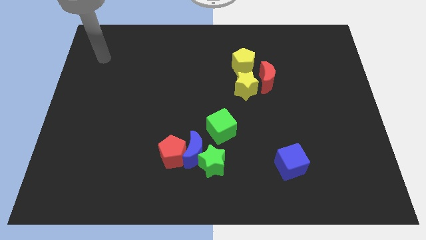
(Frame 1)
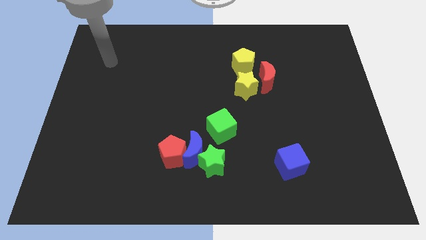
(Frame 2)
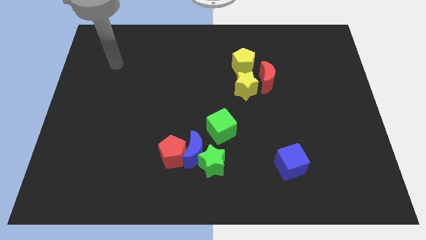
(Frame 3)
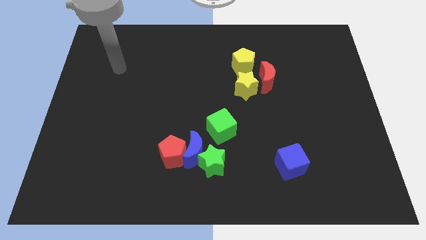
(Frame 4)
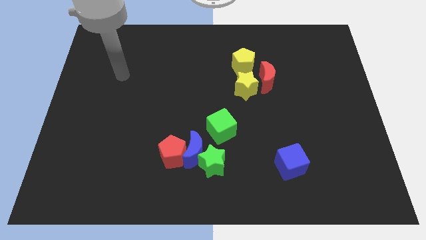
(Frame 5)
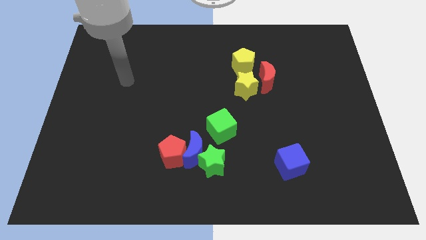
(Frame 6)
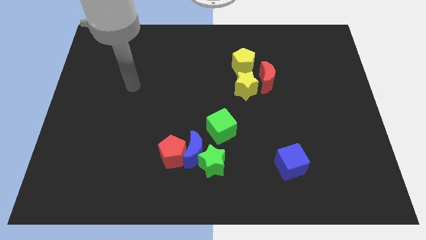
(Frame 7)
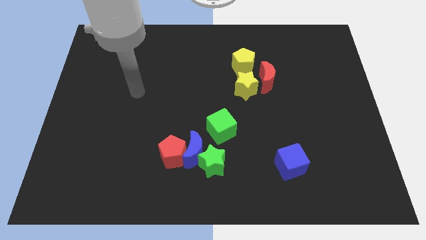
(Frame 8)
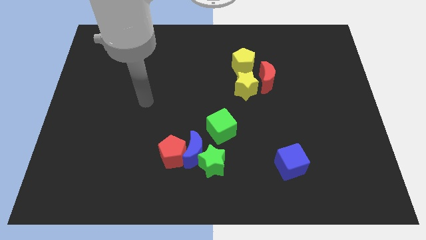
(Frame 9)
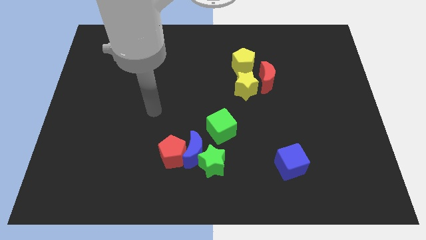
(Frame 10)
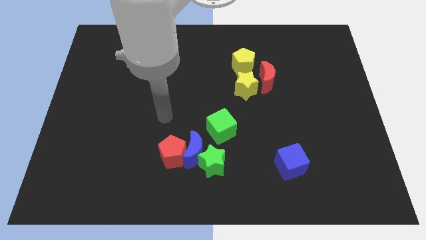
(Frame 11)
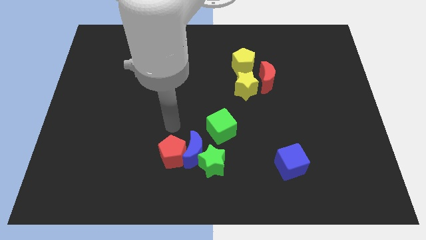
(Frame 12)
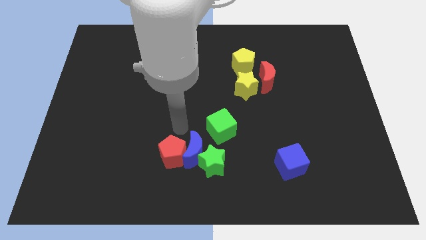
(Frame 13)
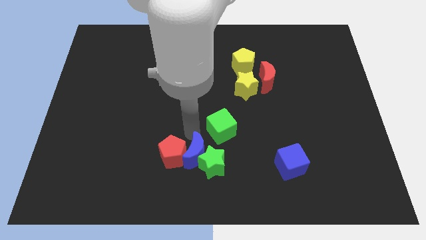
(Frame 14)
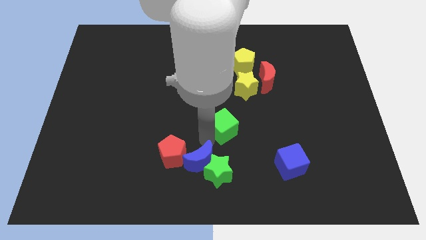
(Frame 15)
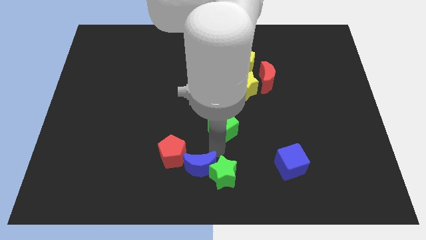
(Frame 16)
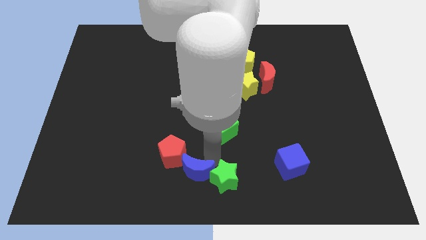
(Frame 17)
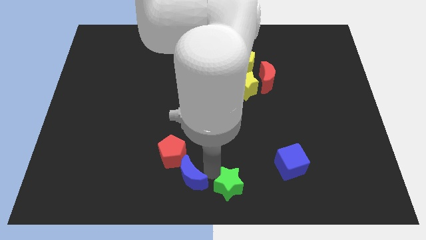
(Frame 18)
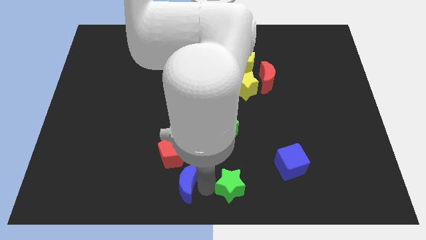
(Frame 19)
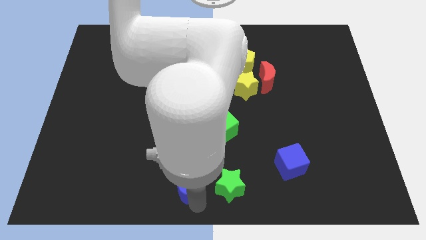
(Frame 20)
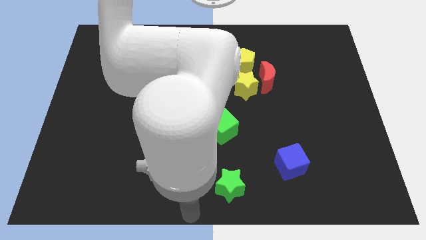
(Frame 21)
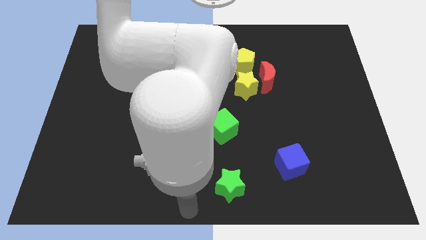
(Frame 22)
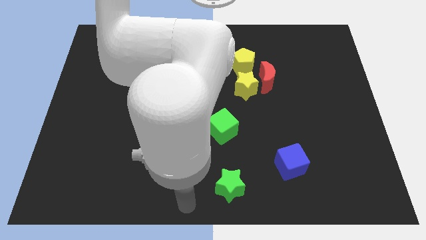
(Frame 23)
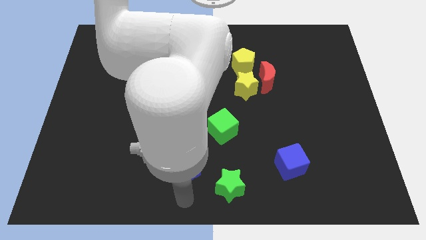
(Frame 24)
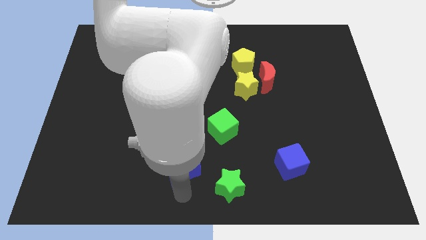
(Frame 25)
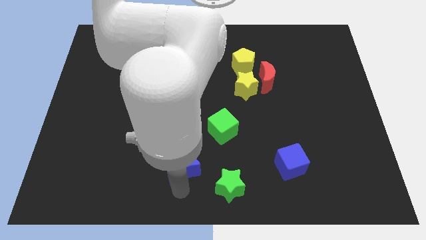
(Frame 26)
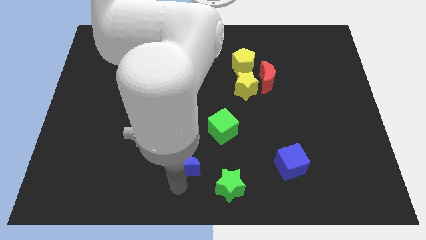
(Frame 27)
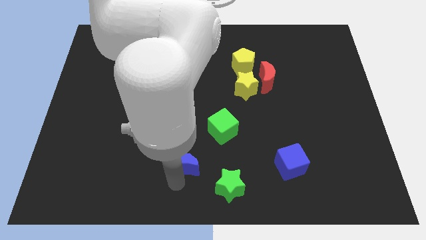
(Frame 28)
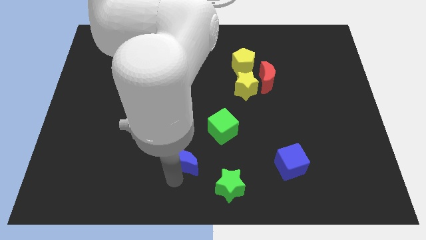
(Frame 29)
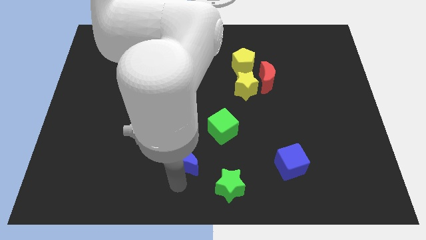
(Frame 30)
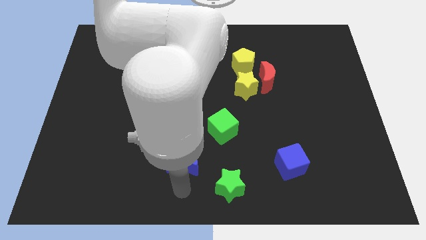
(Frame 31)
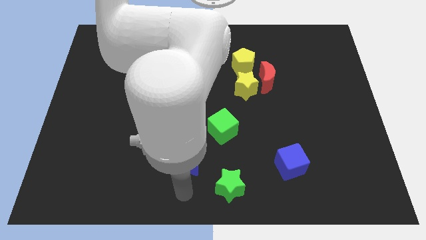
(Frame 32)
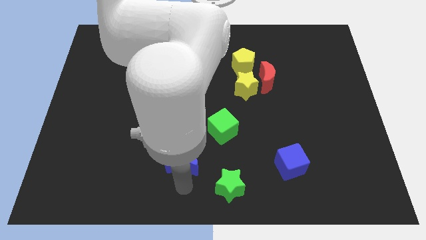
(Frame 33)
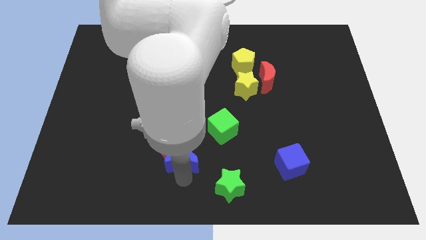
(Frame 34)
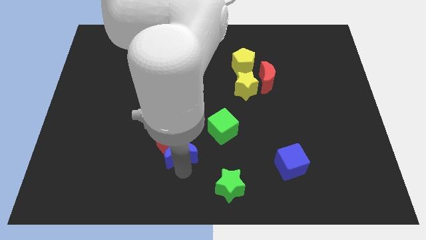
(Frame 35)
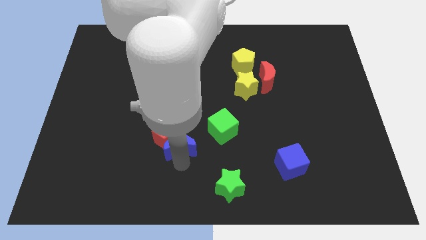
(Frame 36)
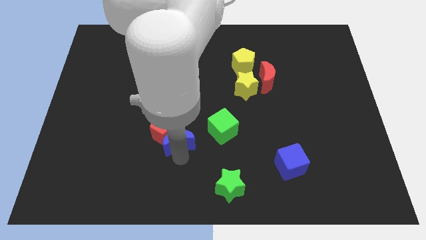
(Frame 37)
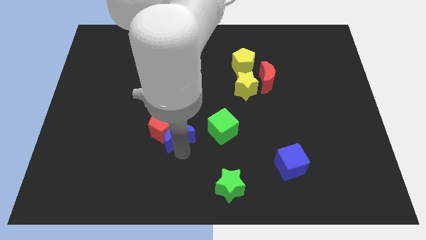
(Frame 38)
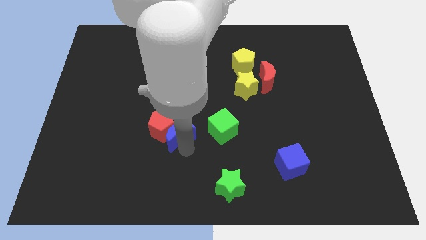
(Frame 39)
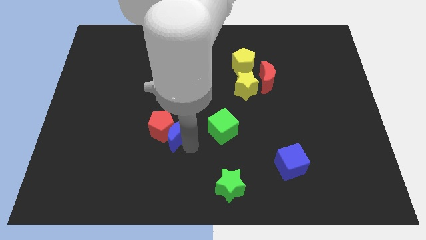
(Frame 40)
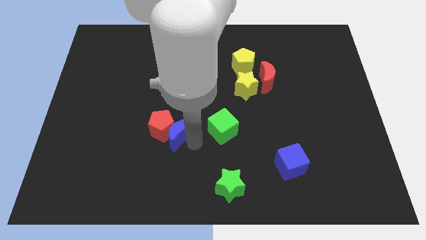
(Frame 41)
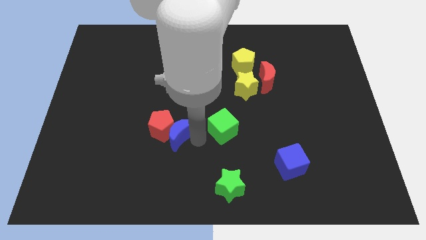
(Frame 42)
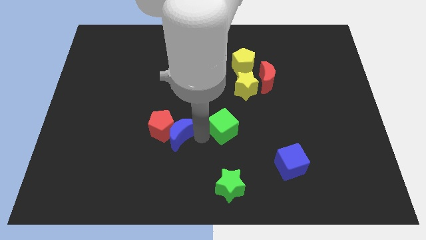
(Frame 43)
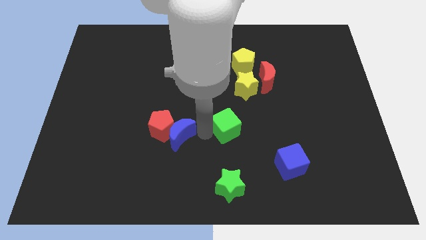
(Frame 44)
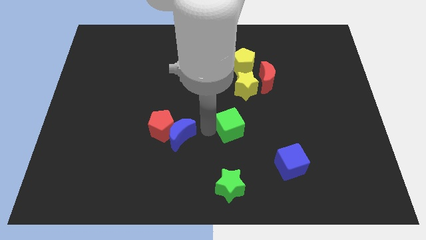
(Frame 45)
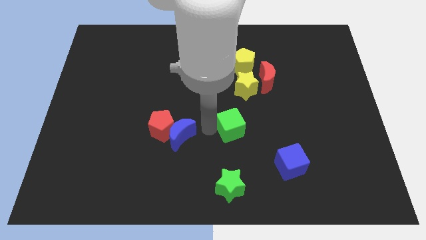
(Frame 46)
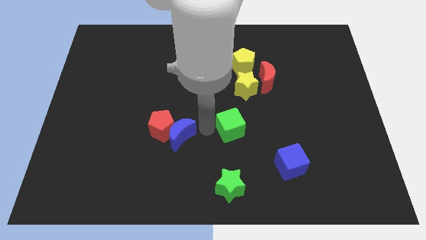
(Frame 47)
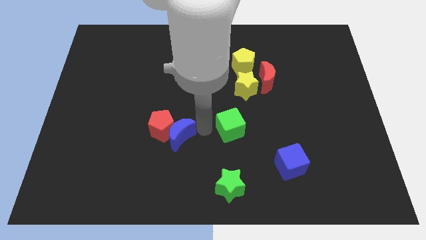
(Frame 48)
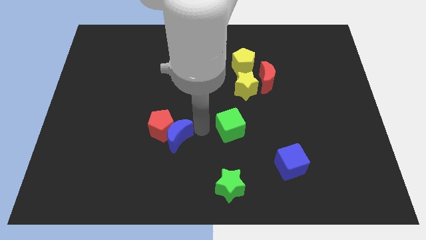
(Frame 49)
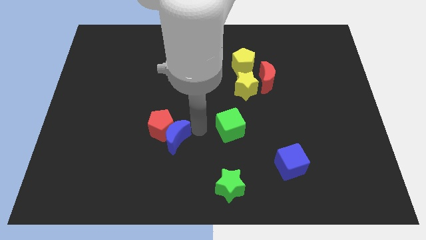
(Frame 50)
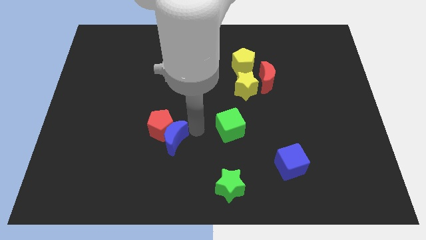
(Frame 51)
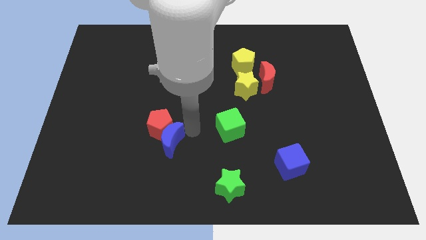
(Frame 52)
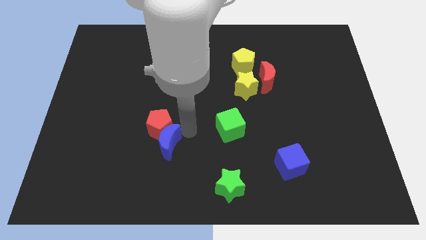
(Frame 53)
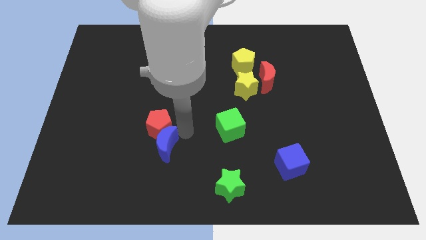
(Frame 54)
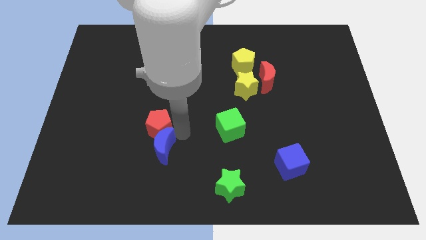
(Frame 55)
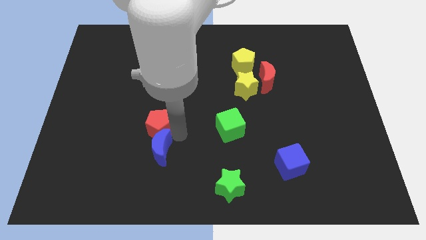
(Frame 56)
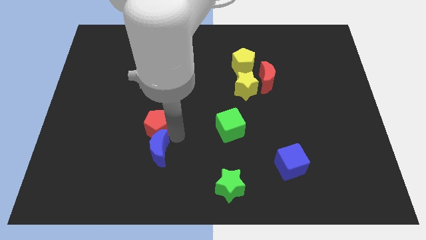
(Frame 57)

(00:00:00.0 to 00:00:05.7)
pull the blue moon apart from the group of blocks

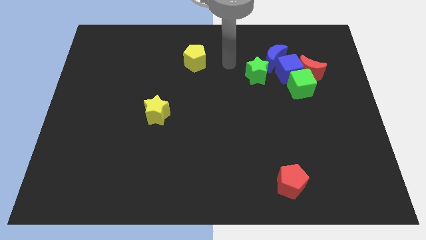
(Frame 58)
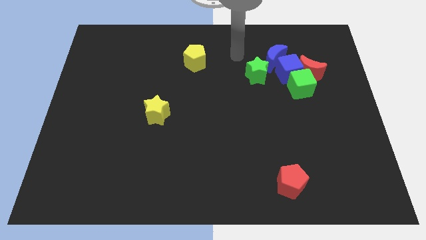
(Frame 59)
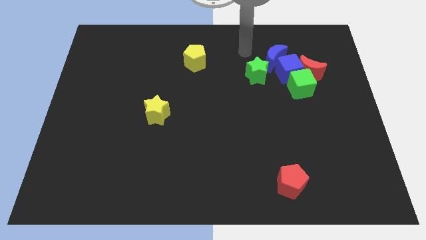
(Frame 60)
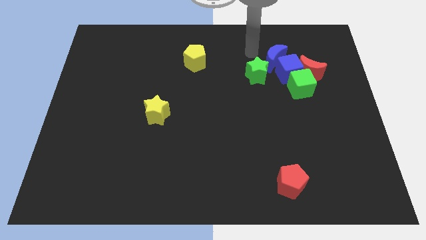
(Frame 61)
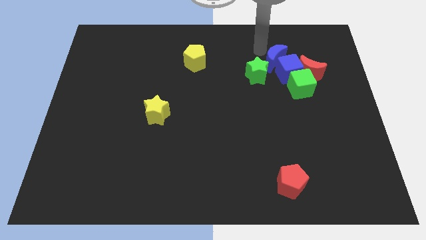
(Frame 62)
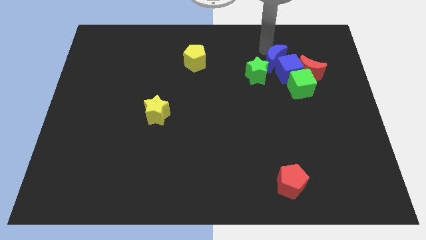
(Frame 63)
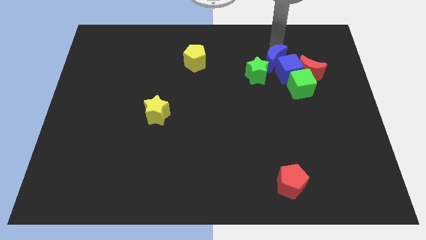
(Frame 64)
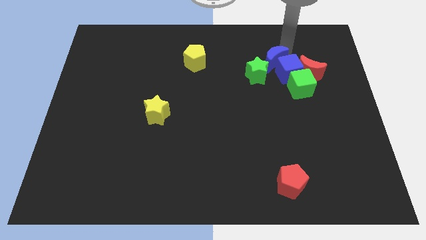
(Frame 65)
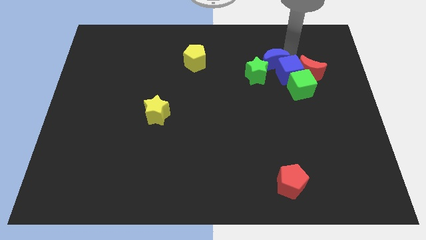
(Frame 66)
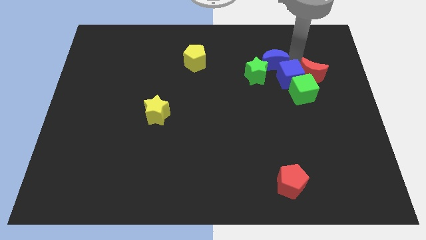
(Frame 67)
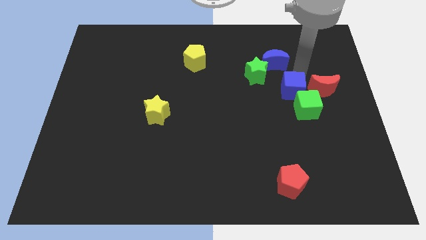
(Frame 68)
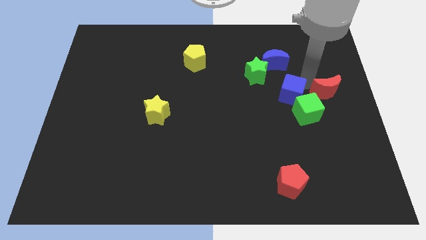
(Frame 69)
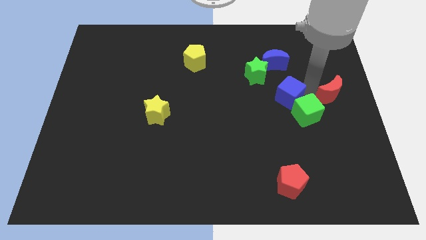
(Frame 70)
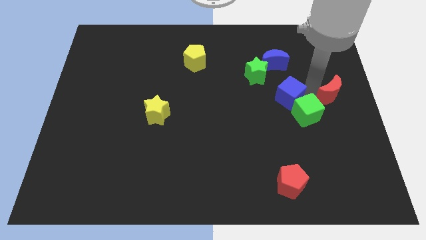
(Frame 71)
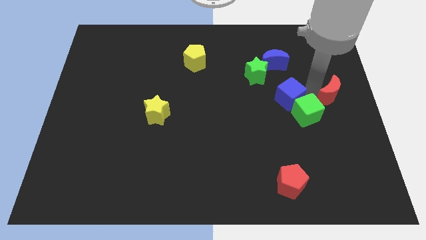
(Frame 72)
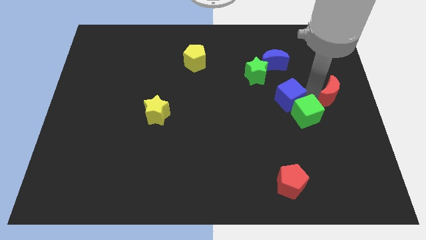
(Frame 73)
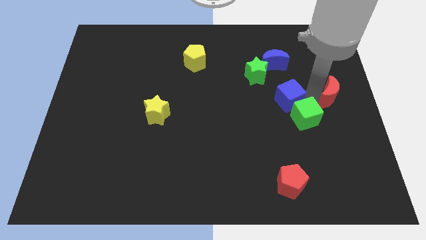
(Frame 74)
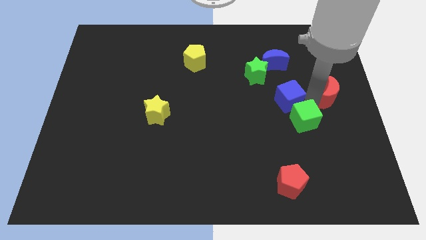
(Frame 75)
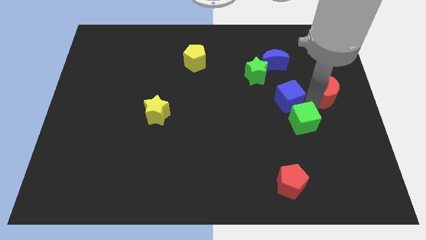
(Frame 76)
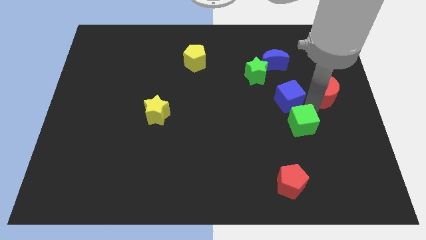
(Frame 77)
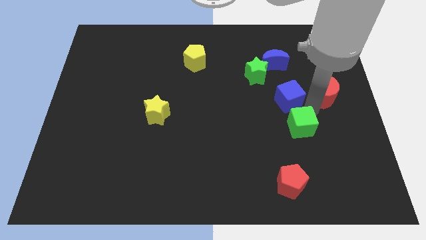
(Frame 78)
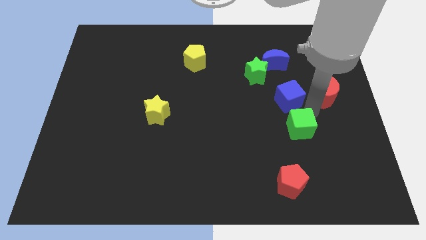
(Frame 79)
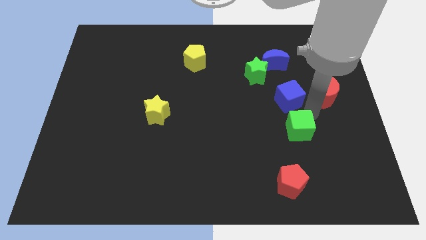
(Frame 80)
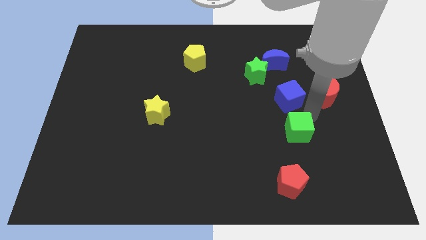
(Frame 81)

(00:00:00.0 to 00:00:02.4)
separate the green cube from the red moon and blue cube

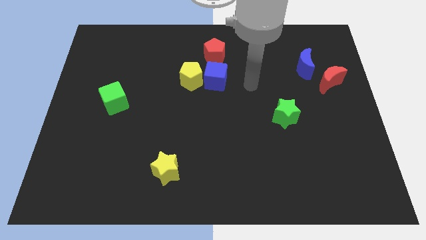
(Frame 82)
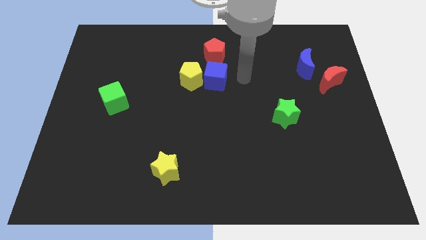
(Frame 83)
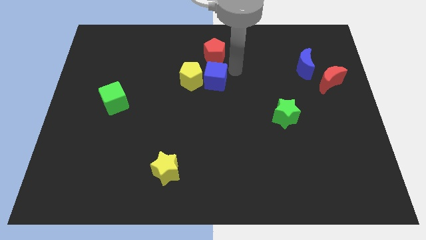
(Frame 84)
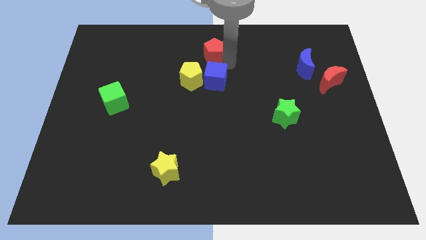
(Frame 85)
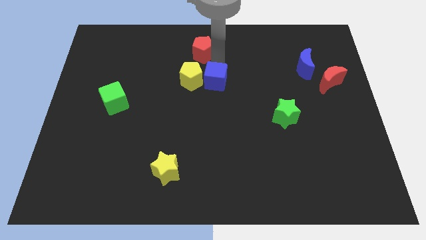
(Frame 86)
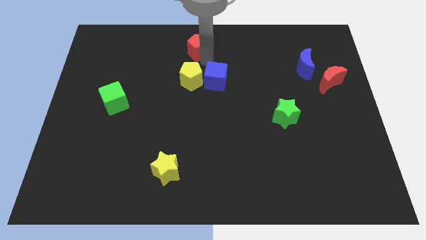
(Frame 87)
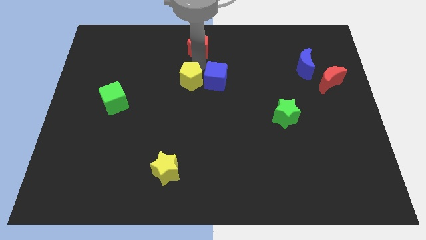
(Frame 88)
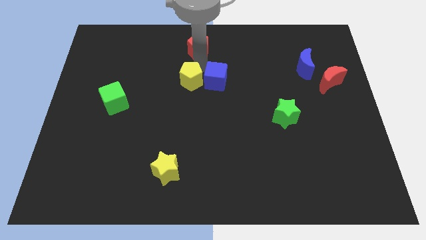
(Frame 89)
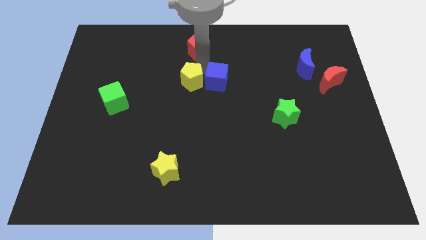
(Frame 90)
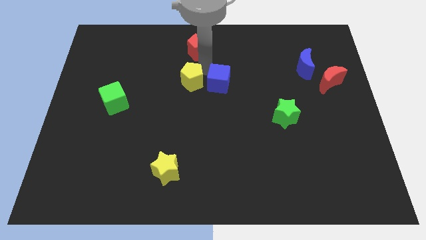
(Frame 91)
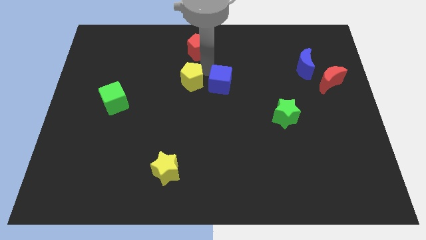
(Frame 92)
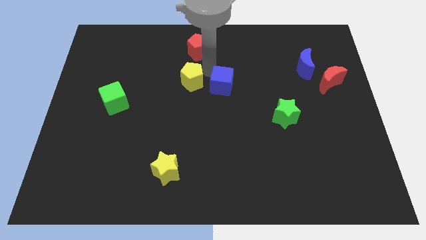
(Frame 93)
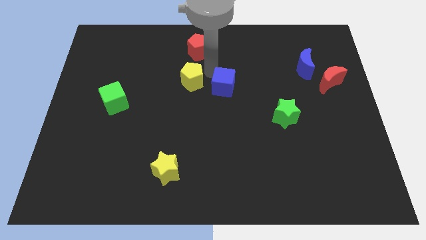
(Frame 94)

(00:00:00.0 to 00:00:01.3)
separate the blue cube from the yellow pentagon and red pentagon
